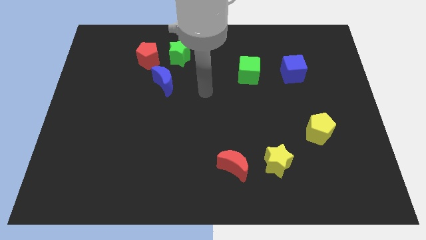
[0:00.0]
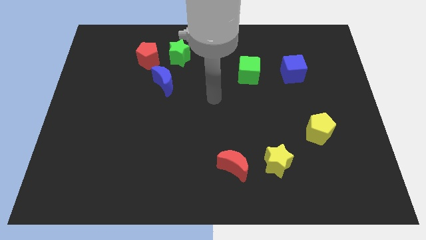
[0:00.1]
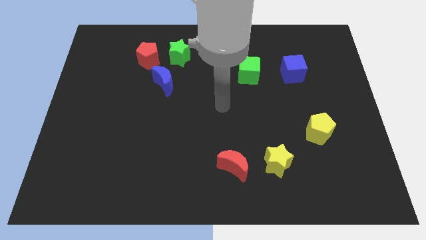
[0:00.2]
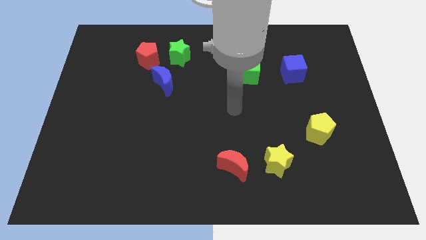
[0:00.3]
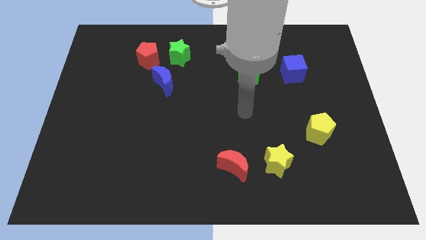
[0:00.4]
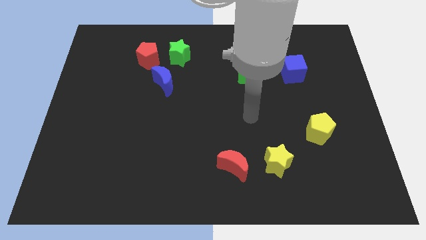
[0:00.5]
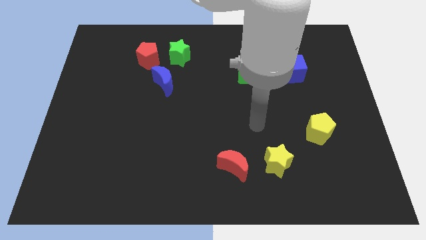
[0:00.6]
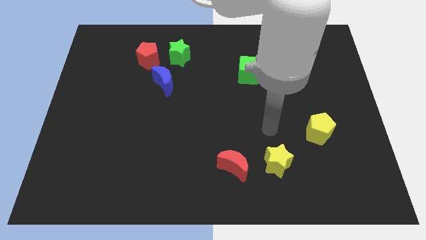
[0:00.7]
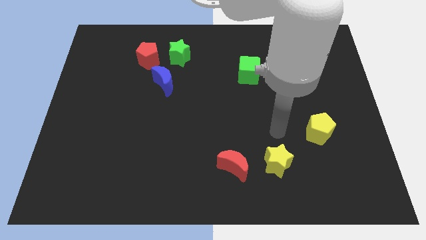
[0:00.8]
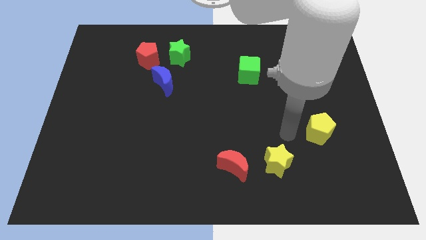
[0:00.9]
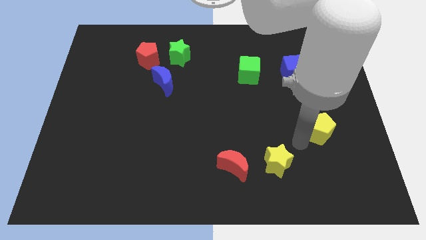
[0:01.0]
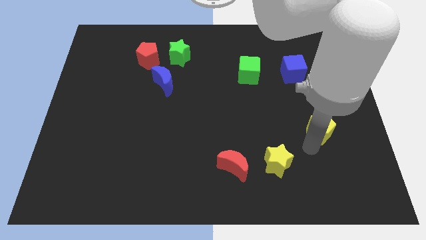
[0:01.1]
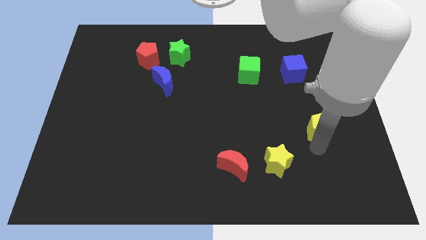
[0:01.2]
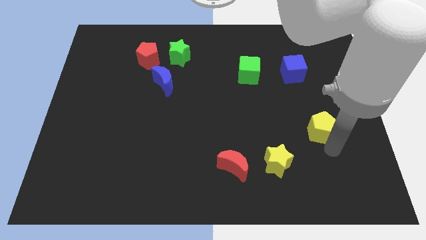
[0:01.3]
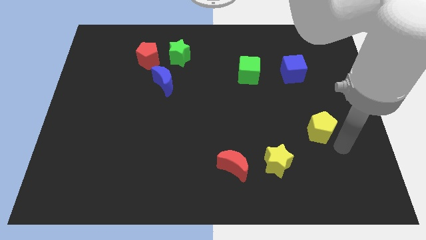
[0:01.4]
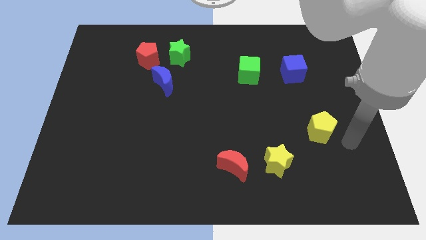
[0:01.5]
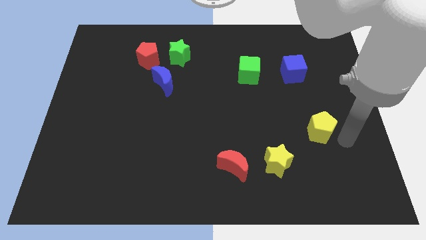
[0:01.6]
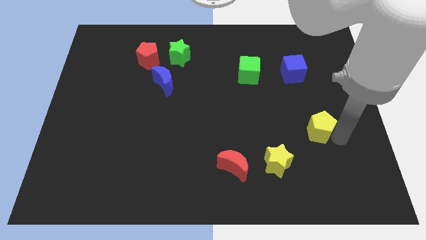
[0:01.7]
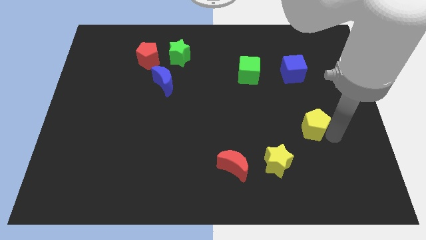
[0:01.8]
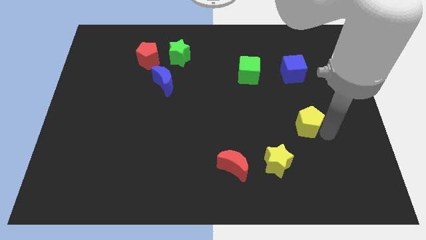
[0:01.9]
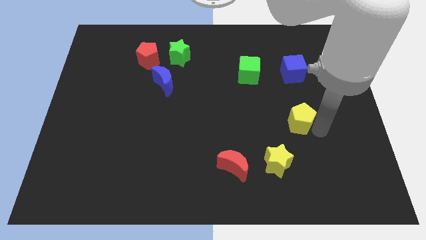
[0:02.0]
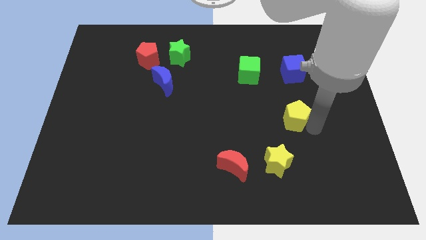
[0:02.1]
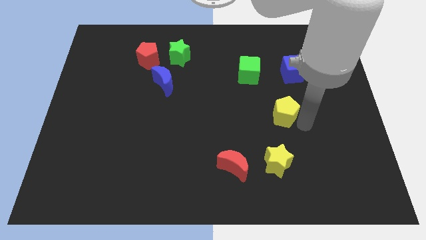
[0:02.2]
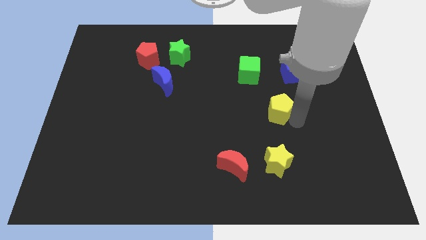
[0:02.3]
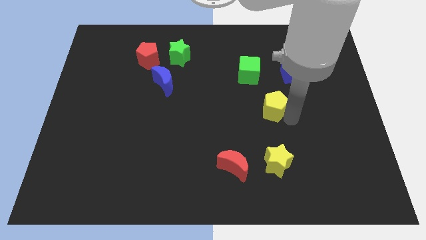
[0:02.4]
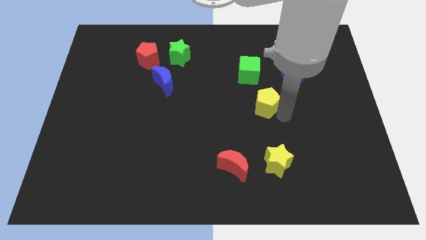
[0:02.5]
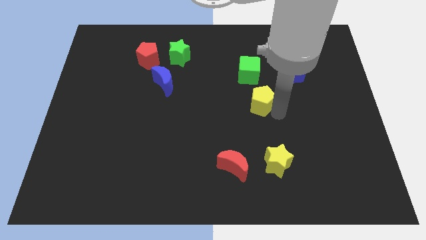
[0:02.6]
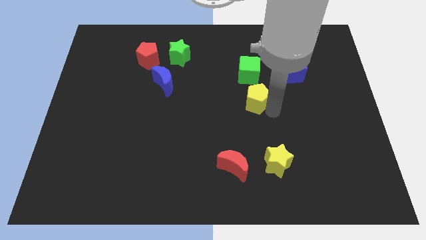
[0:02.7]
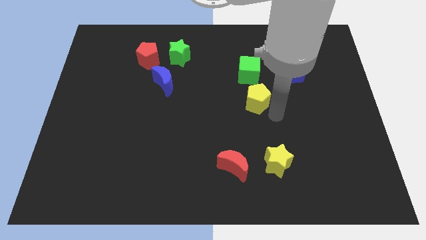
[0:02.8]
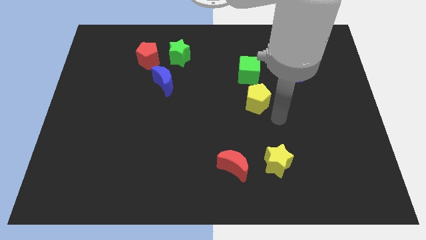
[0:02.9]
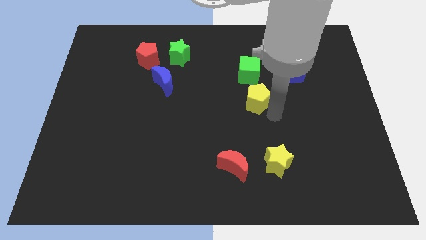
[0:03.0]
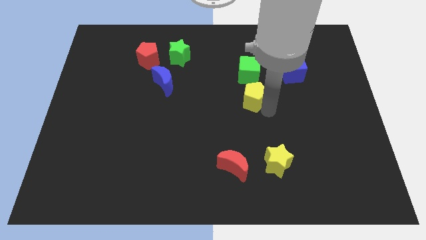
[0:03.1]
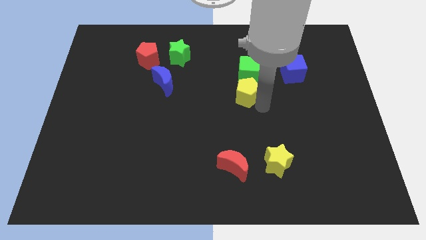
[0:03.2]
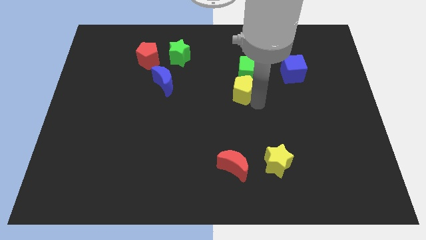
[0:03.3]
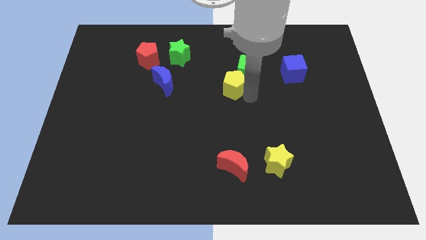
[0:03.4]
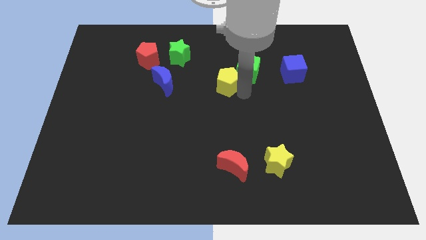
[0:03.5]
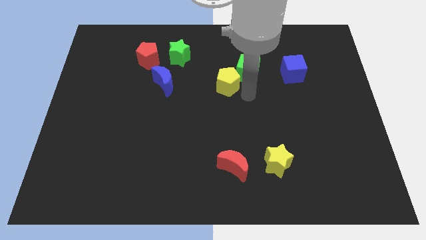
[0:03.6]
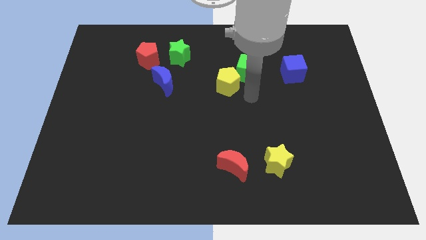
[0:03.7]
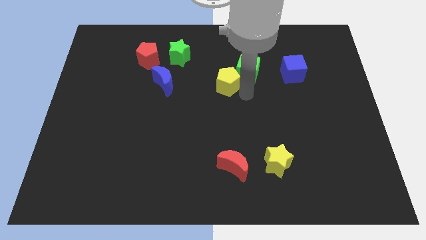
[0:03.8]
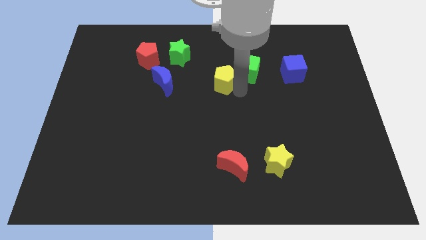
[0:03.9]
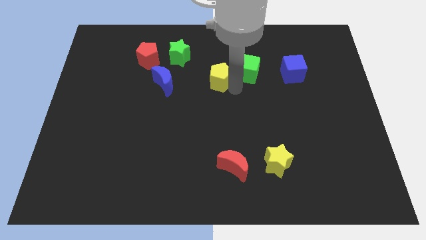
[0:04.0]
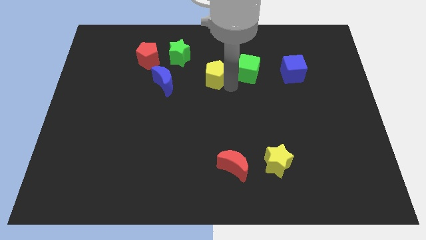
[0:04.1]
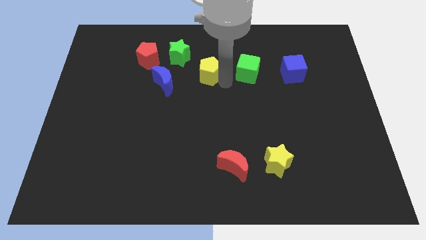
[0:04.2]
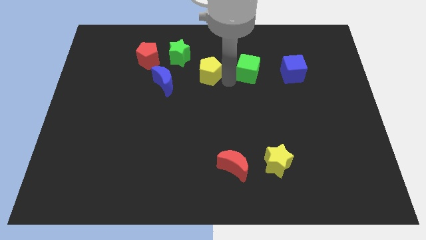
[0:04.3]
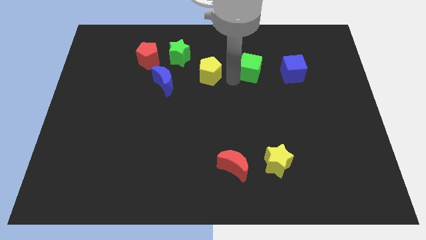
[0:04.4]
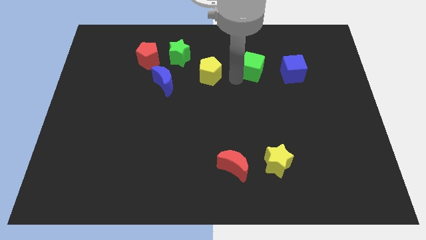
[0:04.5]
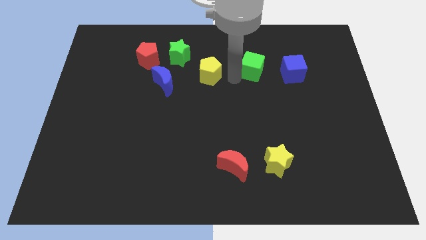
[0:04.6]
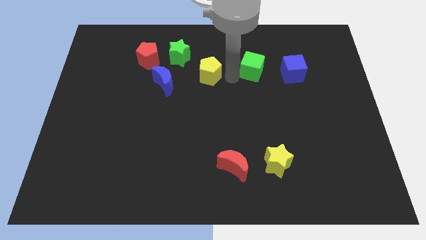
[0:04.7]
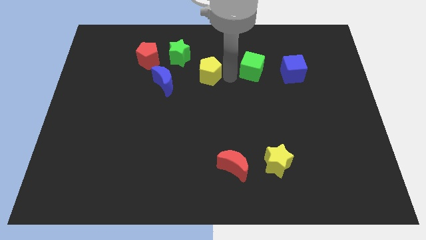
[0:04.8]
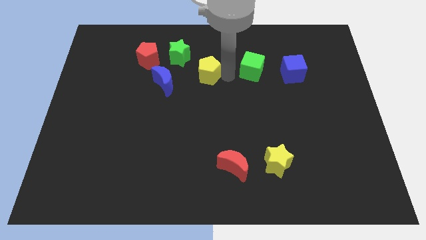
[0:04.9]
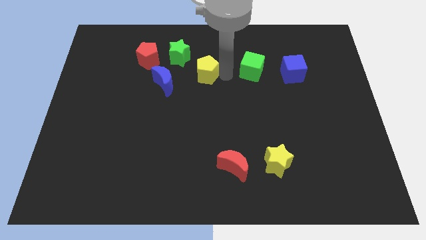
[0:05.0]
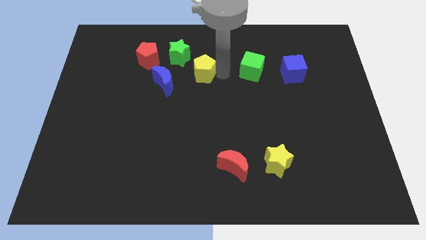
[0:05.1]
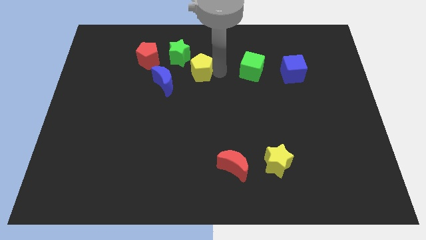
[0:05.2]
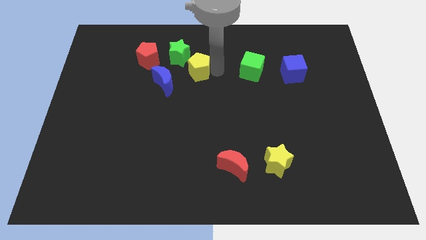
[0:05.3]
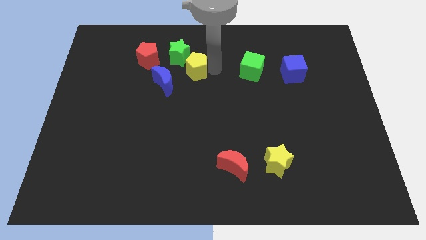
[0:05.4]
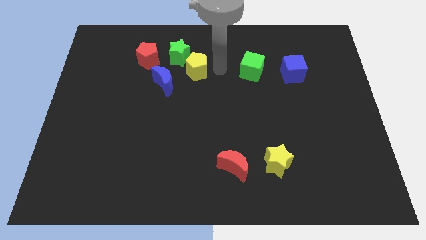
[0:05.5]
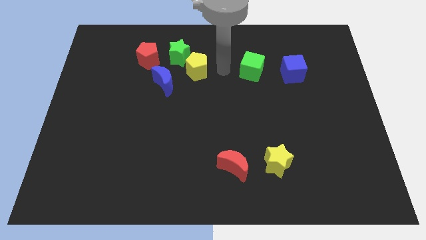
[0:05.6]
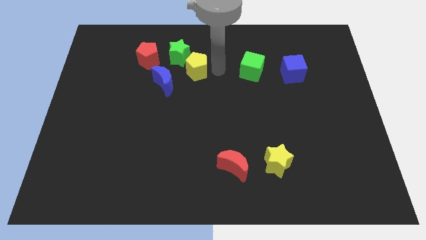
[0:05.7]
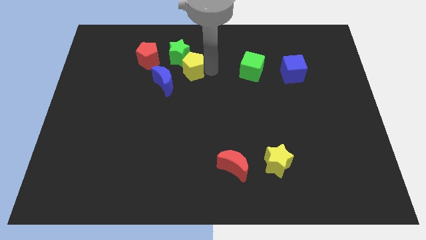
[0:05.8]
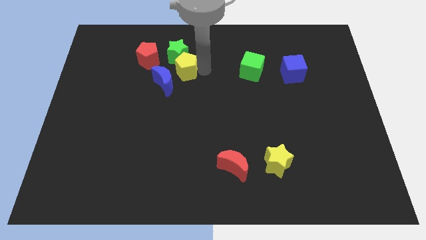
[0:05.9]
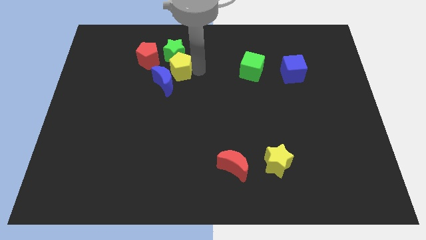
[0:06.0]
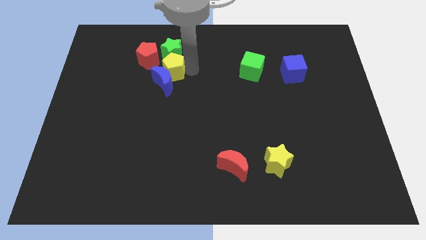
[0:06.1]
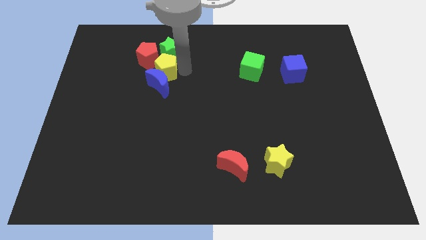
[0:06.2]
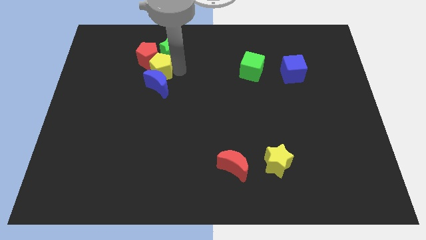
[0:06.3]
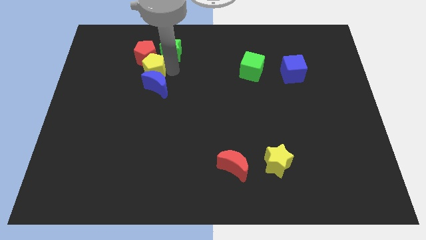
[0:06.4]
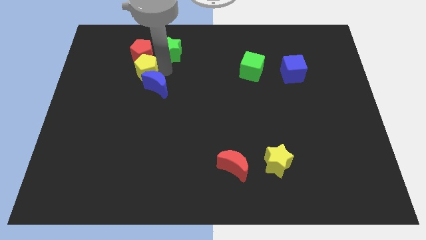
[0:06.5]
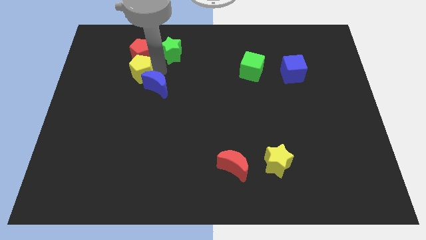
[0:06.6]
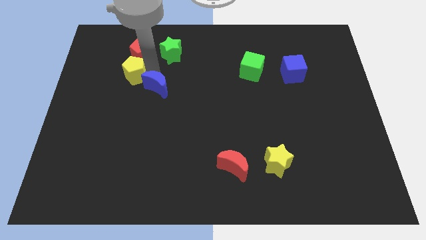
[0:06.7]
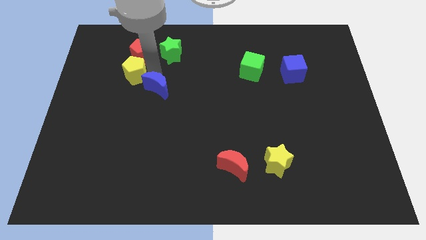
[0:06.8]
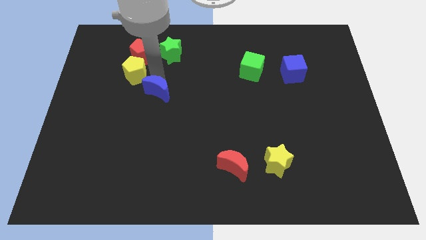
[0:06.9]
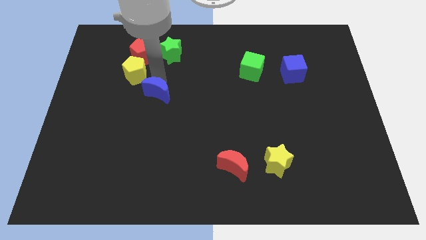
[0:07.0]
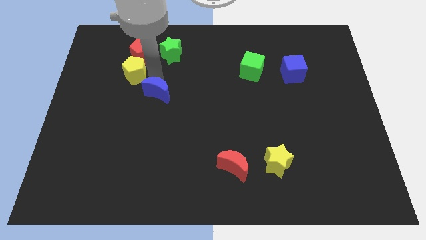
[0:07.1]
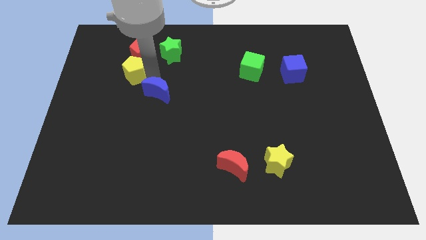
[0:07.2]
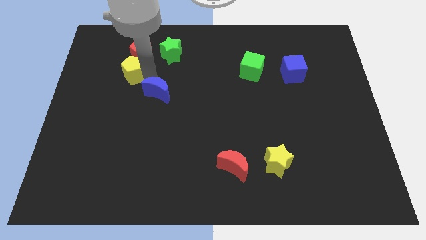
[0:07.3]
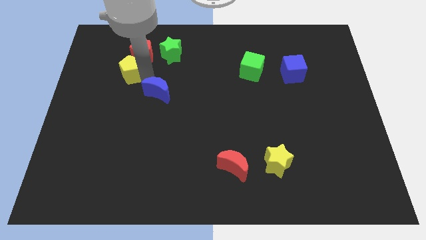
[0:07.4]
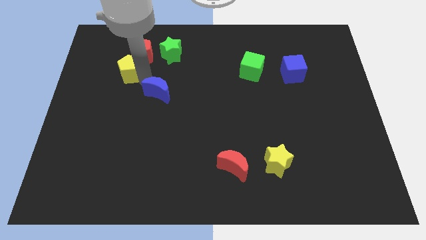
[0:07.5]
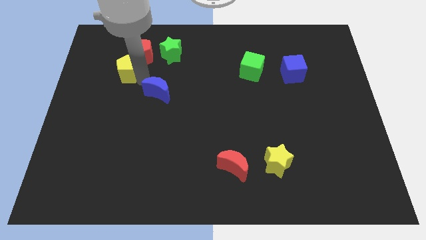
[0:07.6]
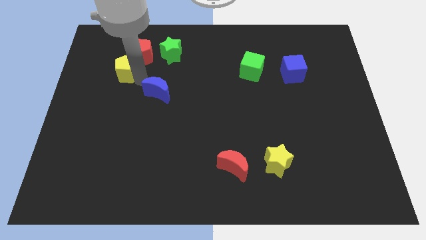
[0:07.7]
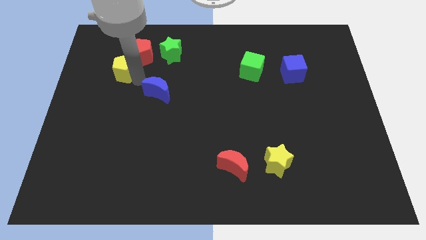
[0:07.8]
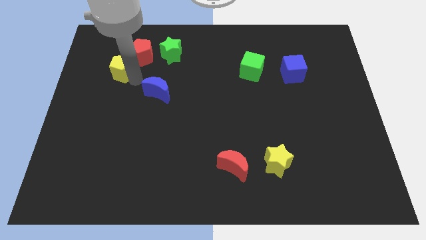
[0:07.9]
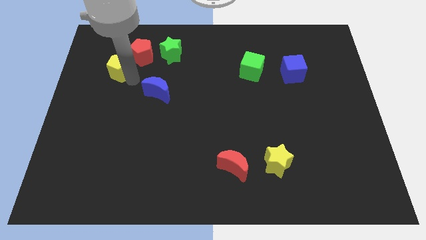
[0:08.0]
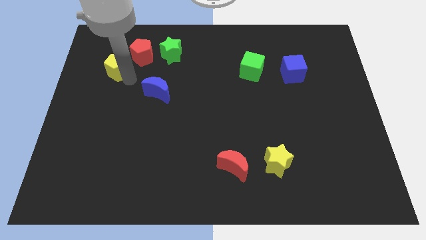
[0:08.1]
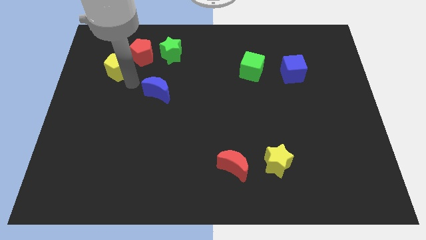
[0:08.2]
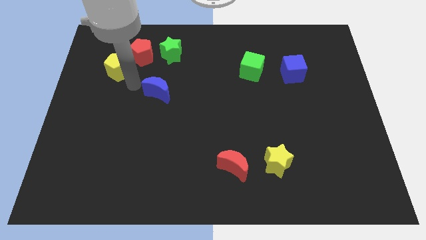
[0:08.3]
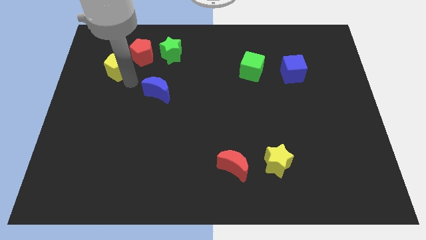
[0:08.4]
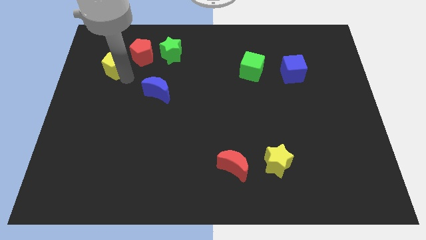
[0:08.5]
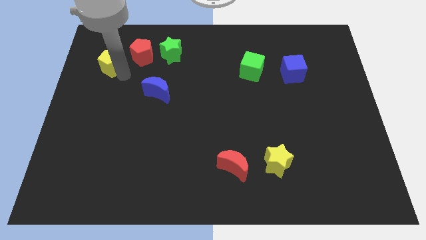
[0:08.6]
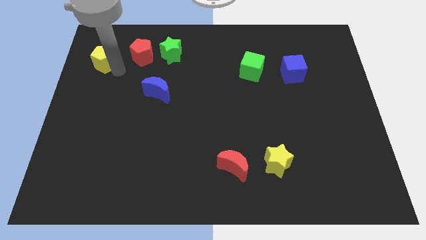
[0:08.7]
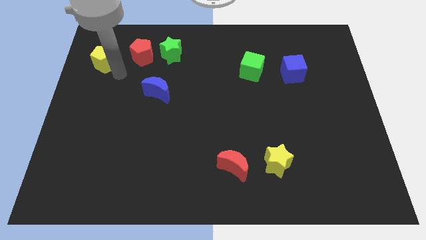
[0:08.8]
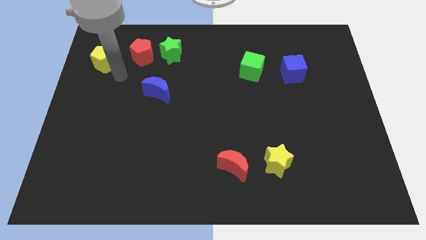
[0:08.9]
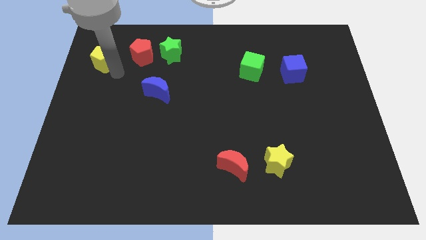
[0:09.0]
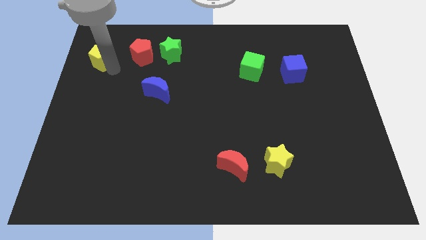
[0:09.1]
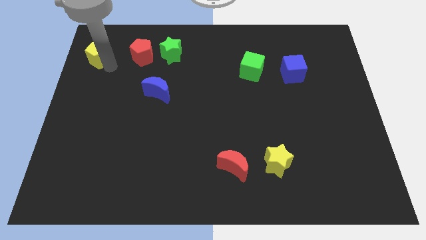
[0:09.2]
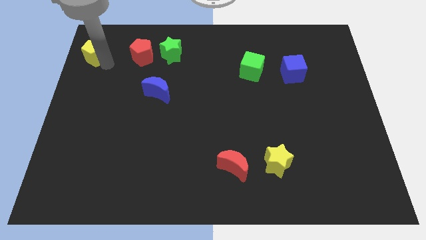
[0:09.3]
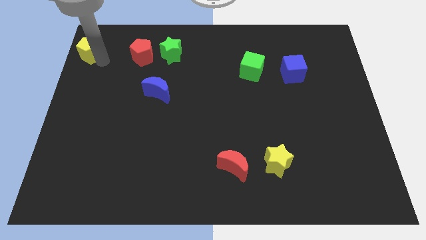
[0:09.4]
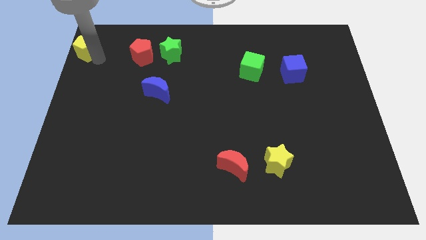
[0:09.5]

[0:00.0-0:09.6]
put the yellow pentagon to the top left corner
